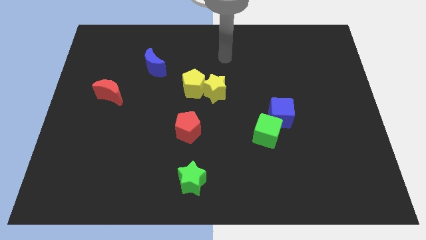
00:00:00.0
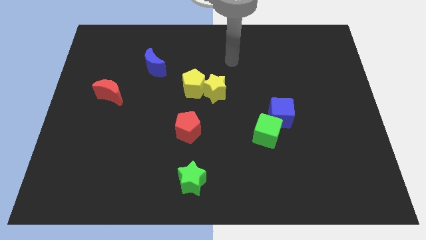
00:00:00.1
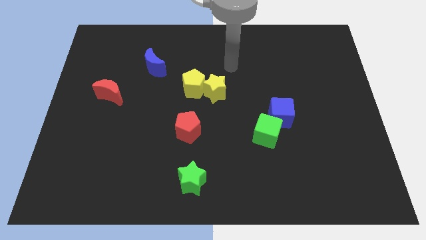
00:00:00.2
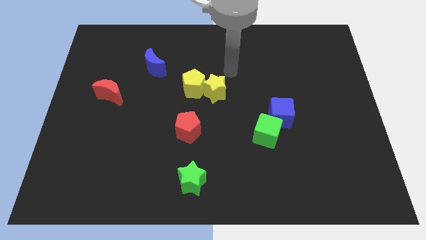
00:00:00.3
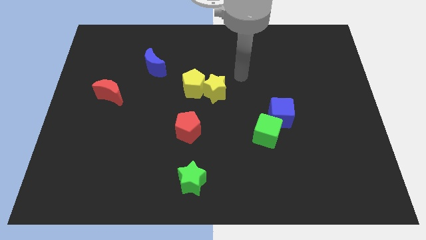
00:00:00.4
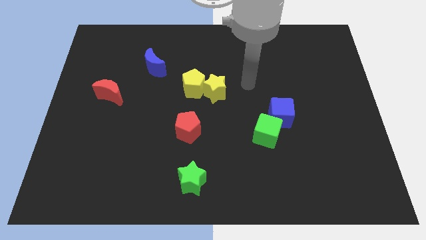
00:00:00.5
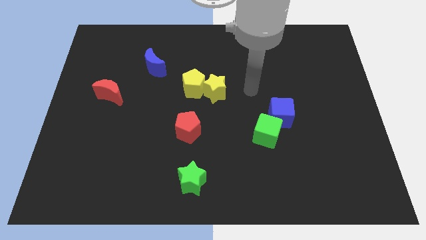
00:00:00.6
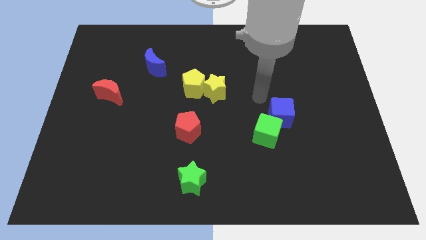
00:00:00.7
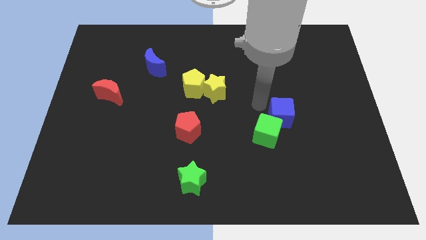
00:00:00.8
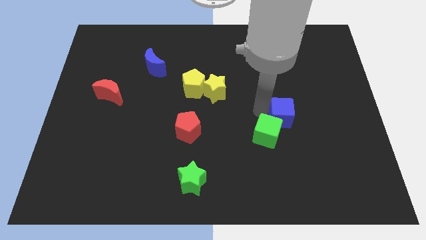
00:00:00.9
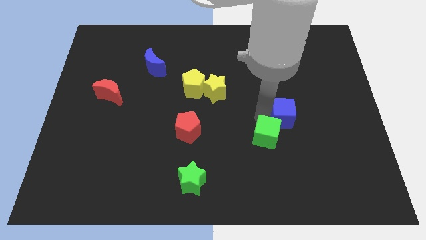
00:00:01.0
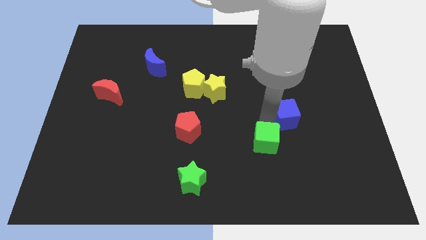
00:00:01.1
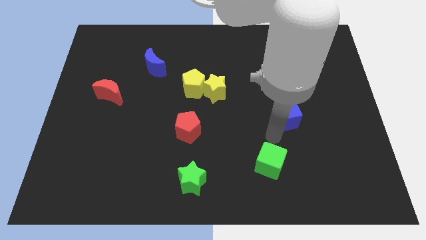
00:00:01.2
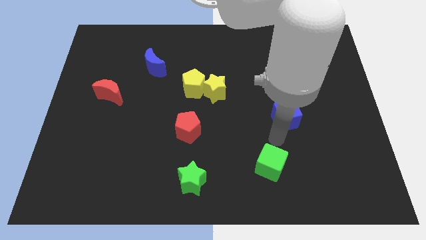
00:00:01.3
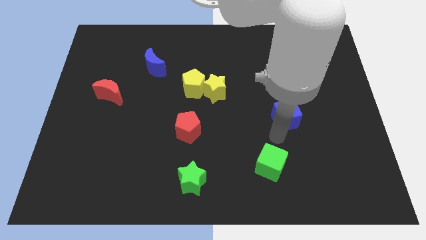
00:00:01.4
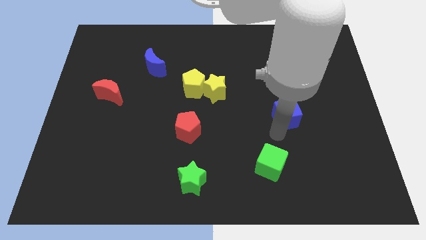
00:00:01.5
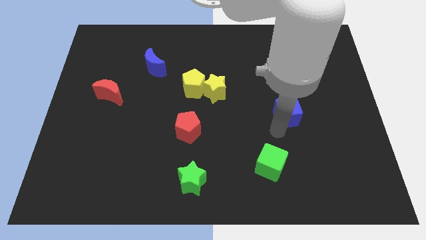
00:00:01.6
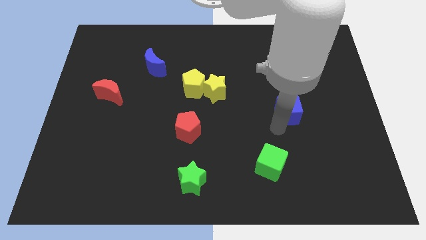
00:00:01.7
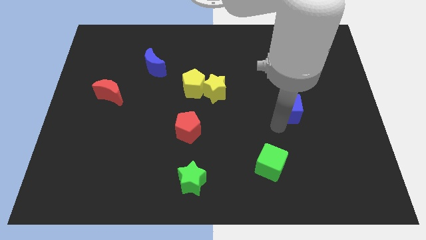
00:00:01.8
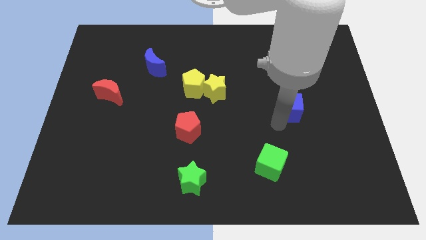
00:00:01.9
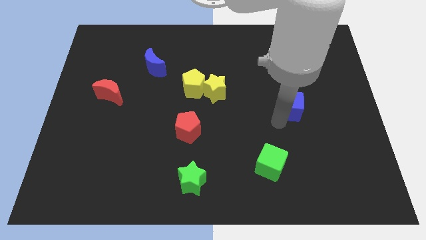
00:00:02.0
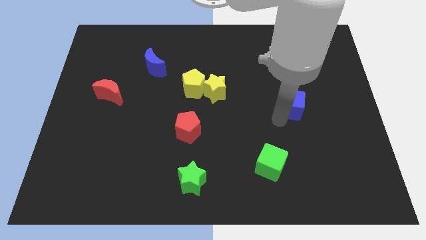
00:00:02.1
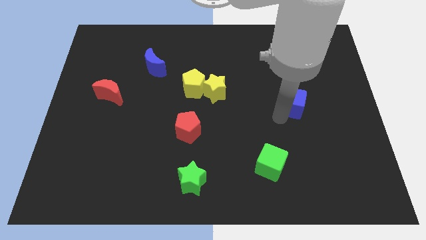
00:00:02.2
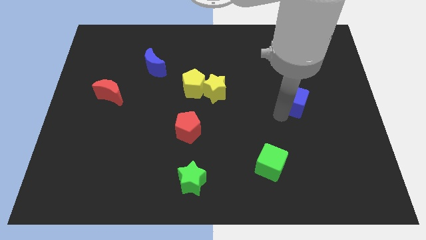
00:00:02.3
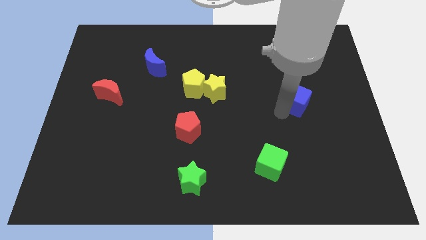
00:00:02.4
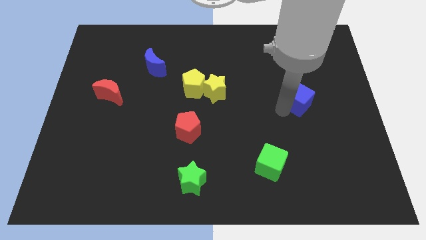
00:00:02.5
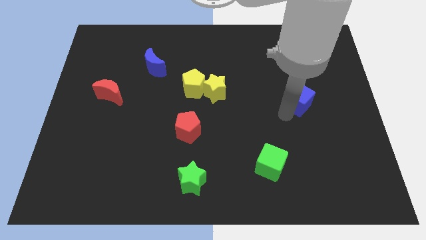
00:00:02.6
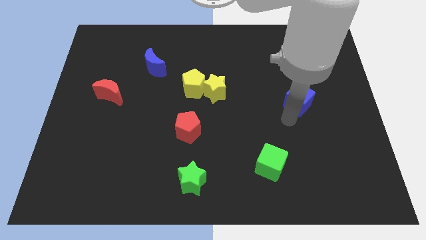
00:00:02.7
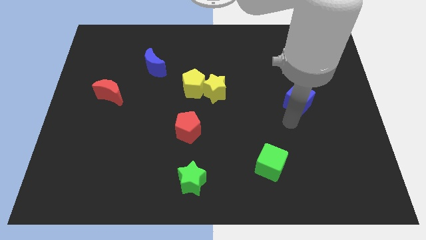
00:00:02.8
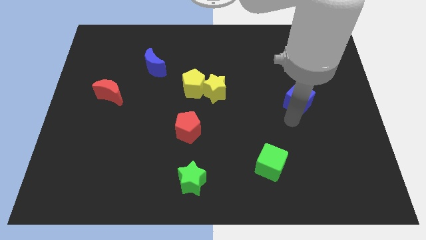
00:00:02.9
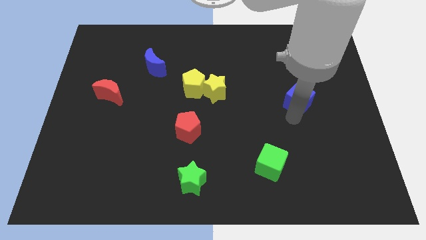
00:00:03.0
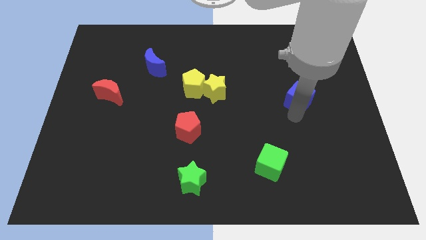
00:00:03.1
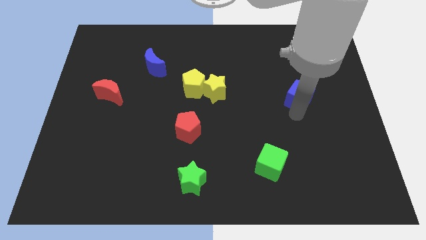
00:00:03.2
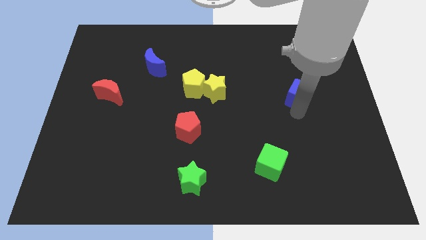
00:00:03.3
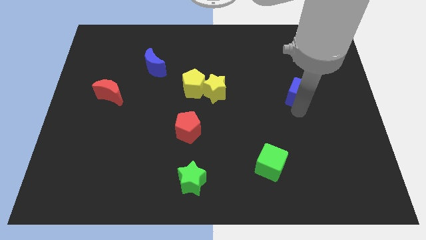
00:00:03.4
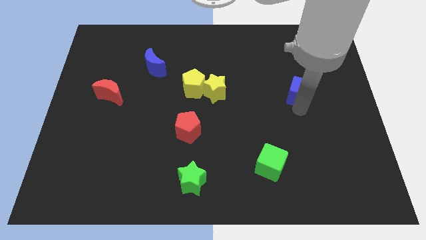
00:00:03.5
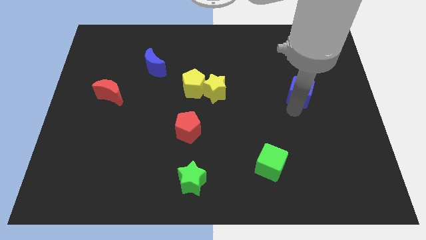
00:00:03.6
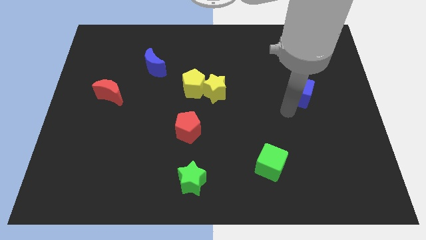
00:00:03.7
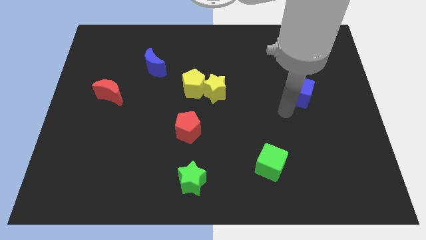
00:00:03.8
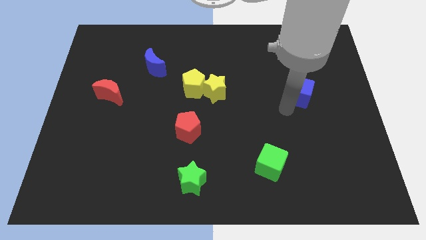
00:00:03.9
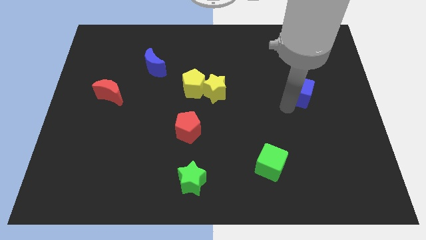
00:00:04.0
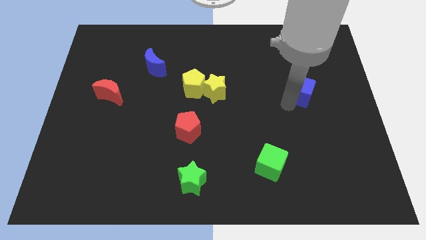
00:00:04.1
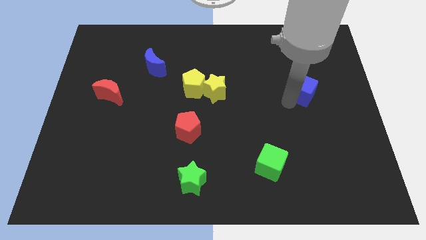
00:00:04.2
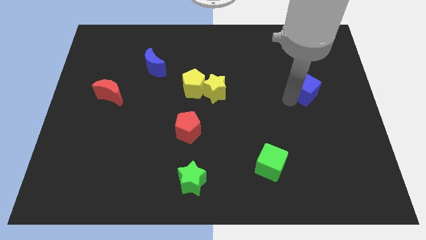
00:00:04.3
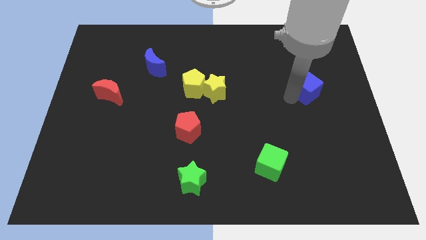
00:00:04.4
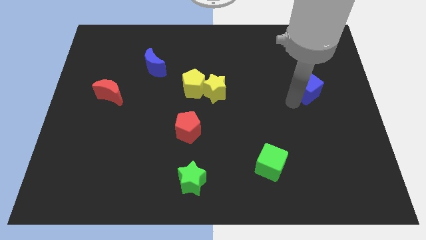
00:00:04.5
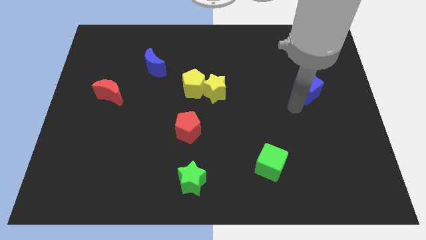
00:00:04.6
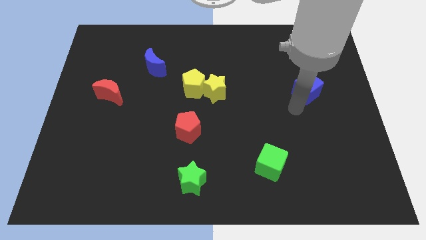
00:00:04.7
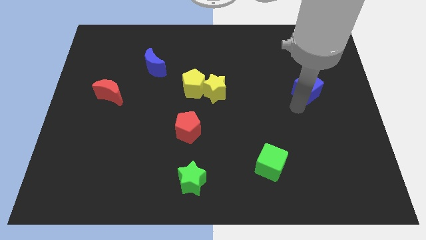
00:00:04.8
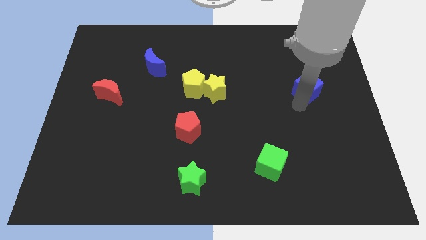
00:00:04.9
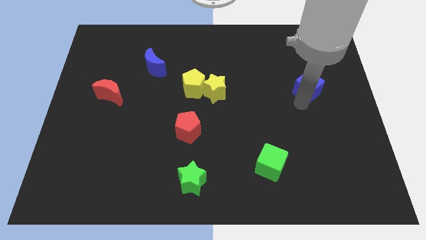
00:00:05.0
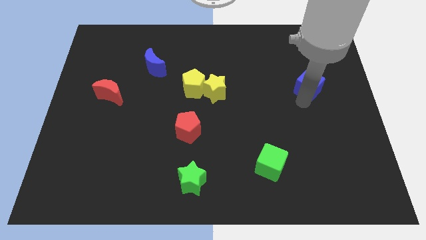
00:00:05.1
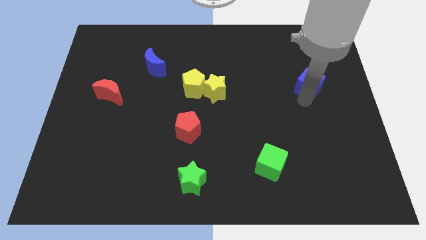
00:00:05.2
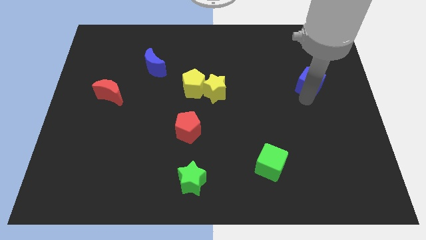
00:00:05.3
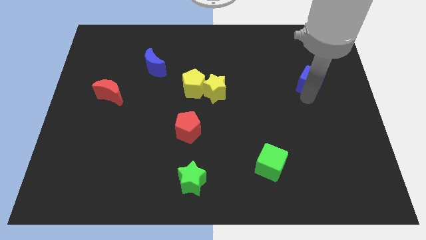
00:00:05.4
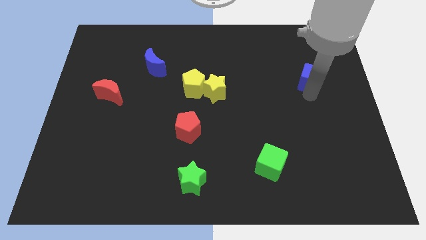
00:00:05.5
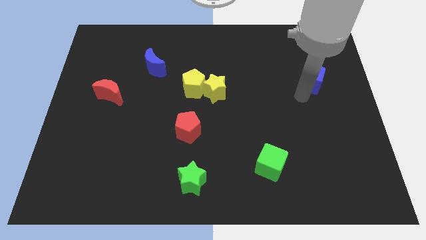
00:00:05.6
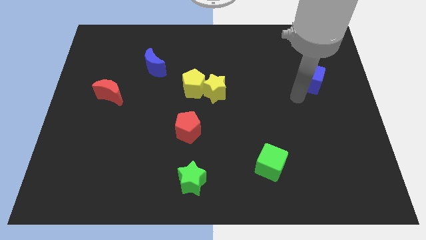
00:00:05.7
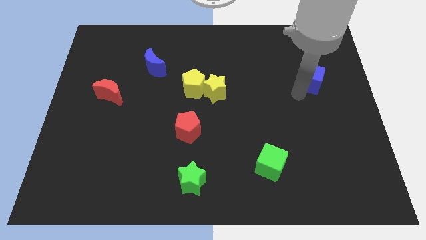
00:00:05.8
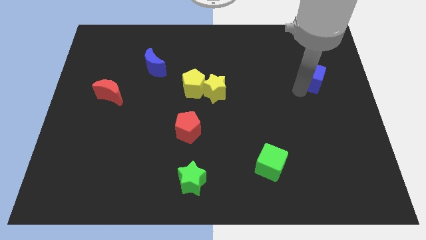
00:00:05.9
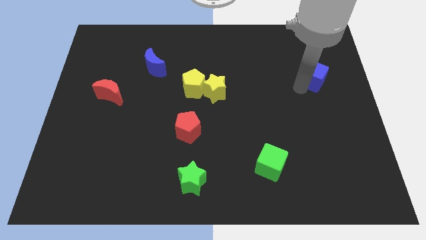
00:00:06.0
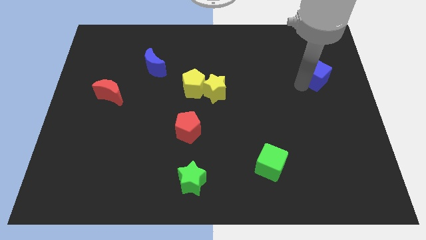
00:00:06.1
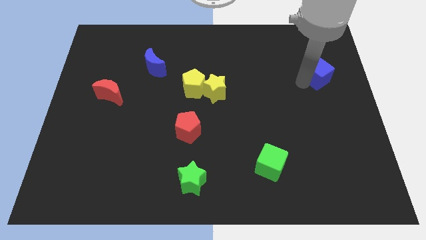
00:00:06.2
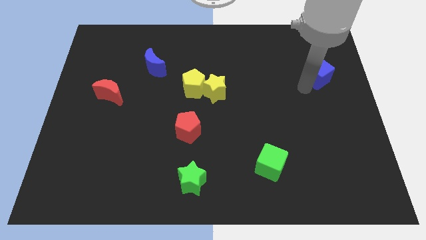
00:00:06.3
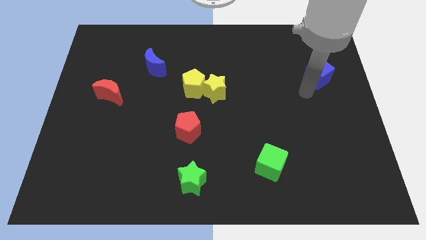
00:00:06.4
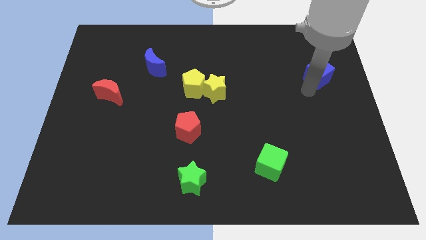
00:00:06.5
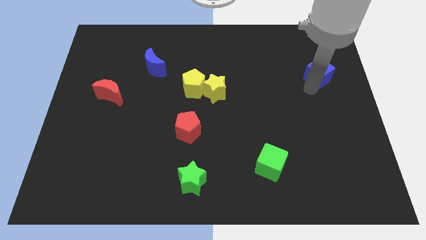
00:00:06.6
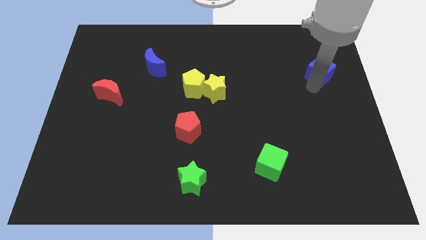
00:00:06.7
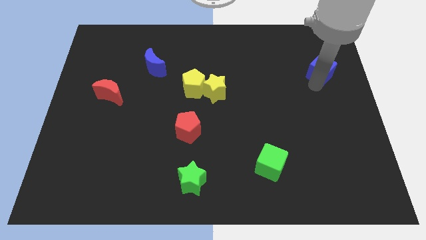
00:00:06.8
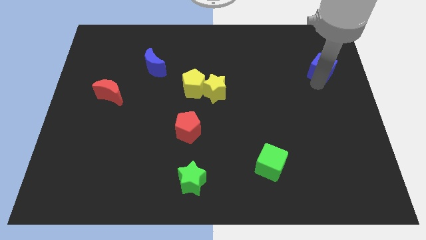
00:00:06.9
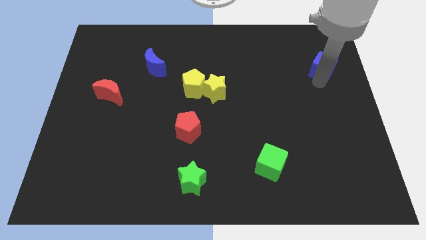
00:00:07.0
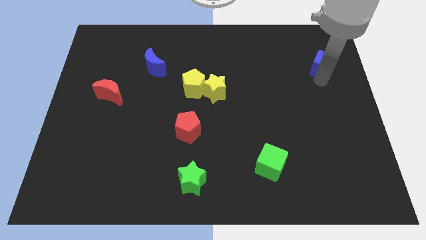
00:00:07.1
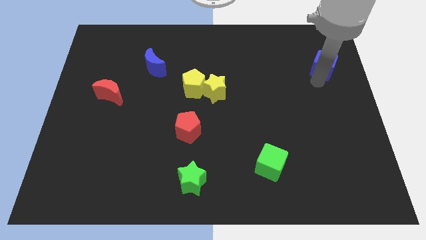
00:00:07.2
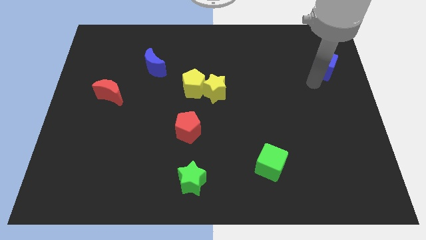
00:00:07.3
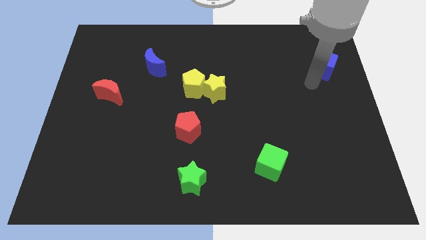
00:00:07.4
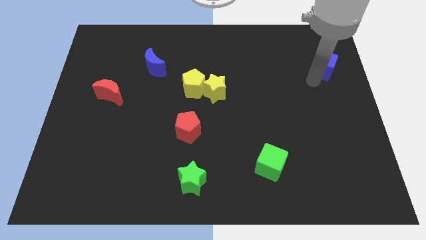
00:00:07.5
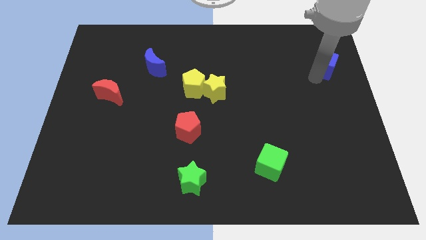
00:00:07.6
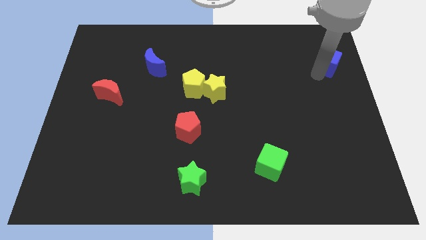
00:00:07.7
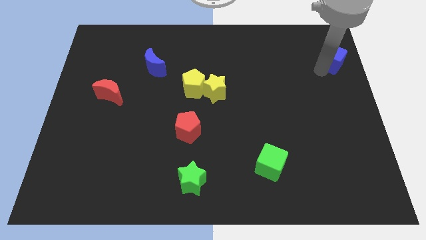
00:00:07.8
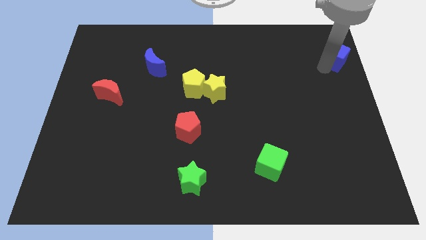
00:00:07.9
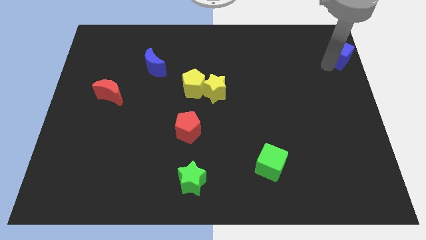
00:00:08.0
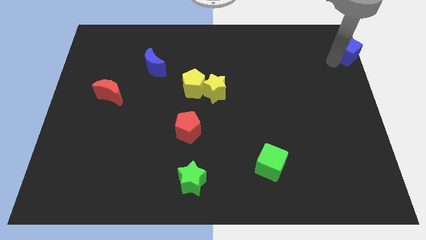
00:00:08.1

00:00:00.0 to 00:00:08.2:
put the blue cube to the upper right corner
